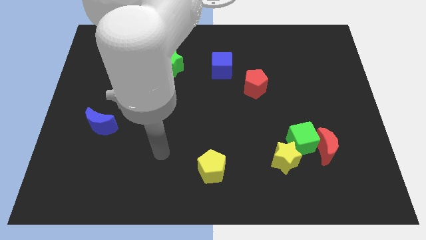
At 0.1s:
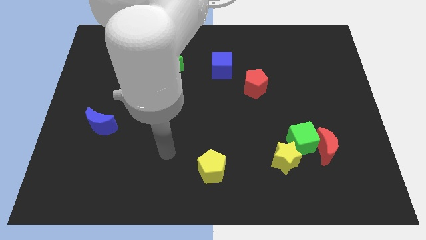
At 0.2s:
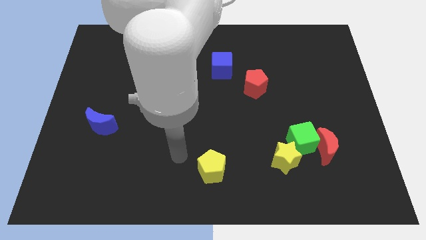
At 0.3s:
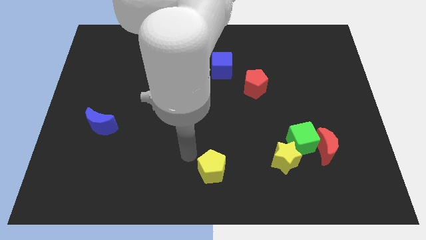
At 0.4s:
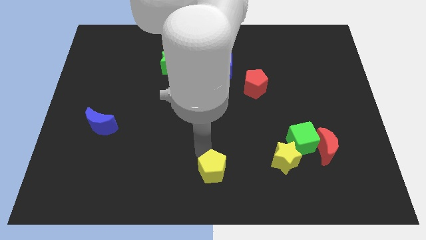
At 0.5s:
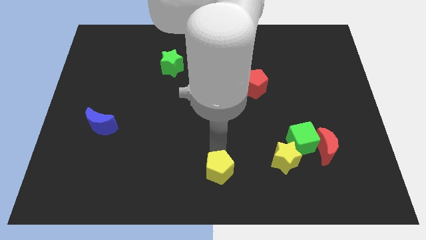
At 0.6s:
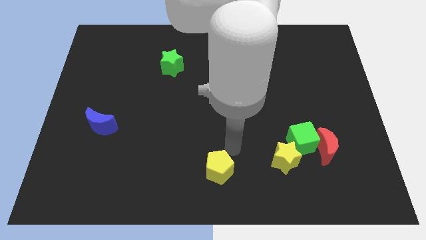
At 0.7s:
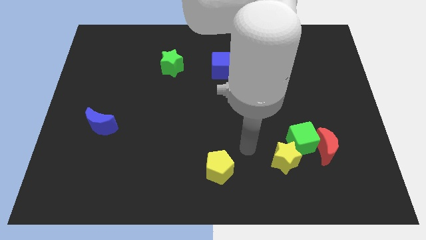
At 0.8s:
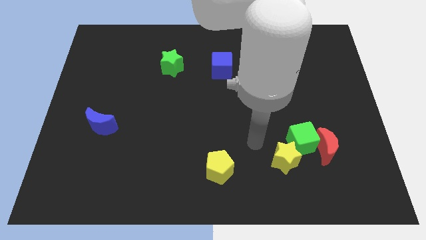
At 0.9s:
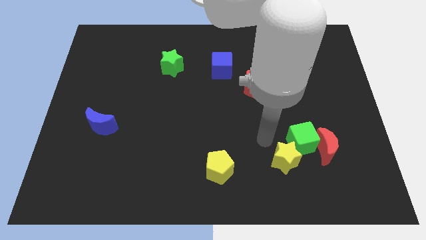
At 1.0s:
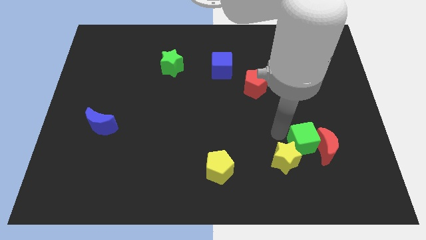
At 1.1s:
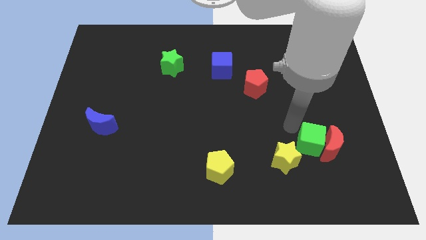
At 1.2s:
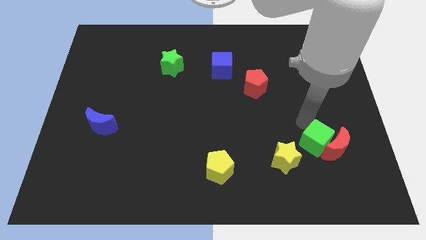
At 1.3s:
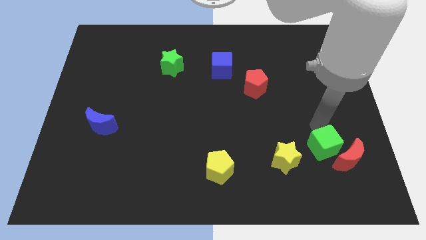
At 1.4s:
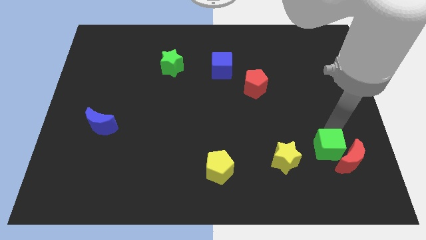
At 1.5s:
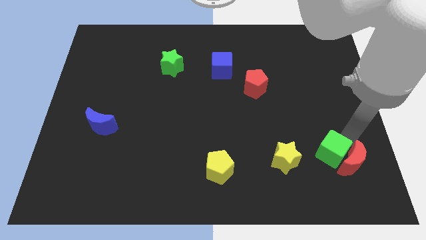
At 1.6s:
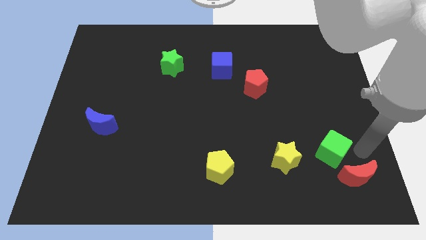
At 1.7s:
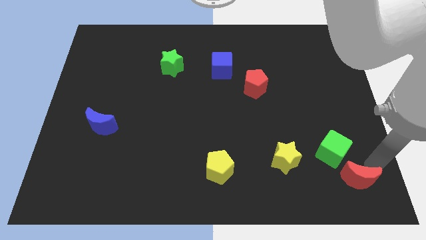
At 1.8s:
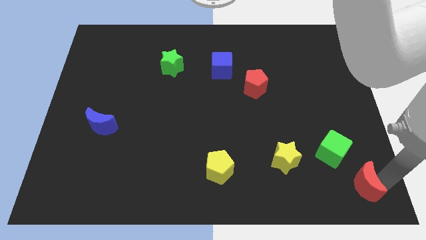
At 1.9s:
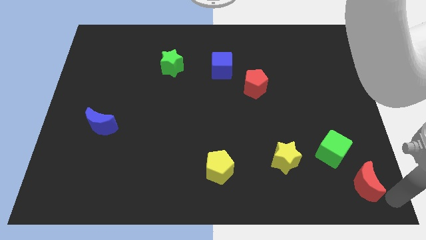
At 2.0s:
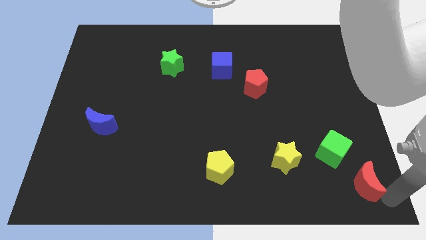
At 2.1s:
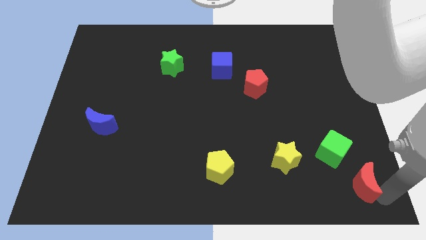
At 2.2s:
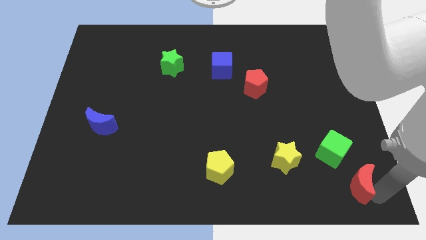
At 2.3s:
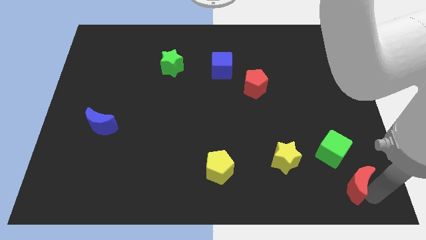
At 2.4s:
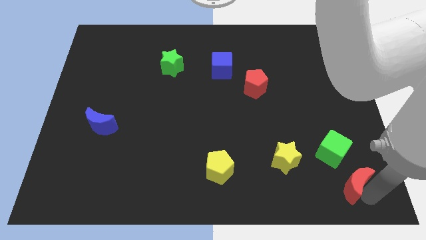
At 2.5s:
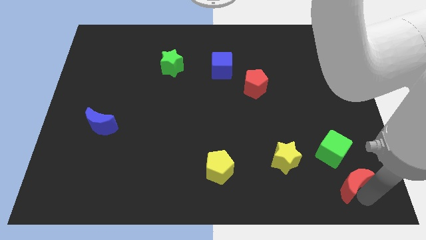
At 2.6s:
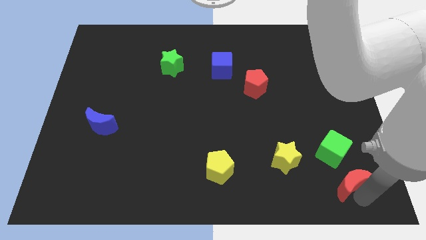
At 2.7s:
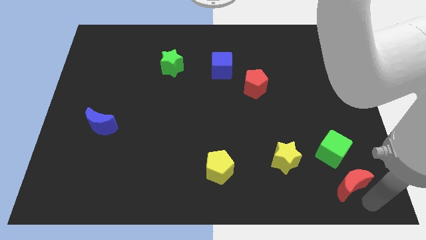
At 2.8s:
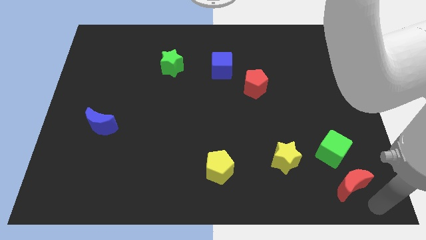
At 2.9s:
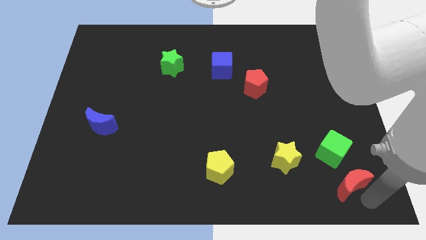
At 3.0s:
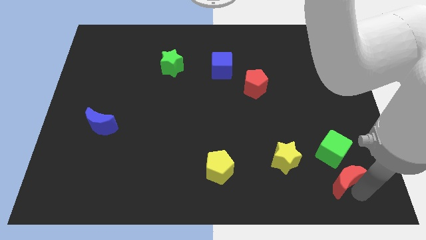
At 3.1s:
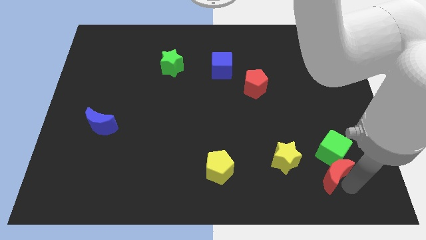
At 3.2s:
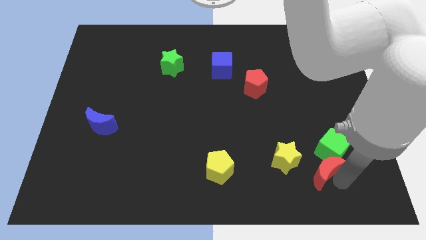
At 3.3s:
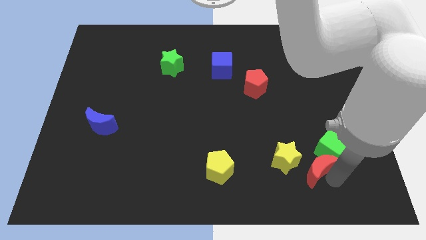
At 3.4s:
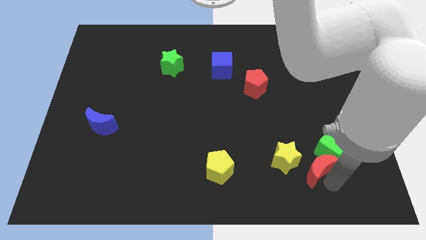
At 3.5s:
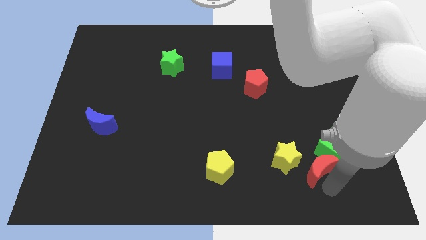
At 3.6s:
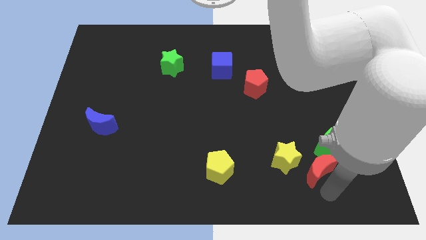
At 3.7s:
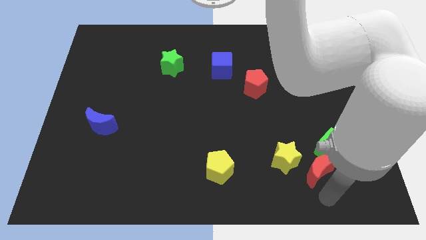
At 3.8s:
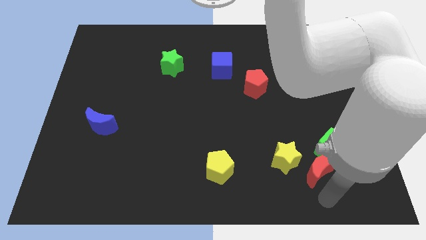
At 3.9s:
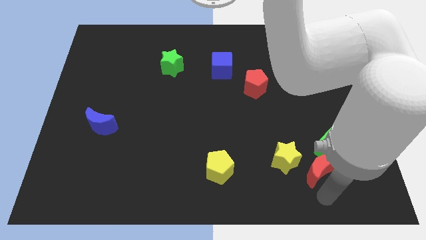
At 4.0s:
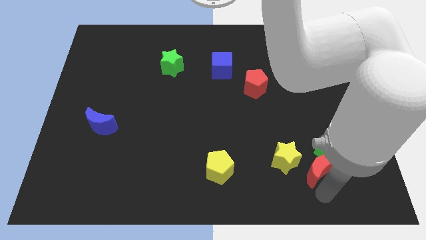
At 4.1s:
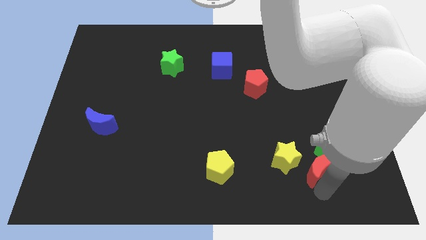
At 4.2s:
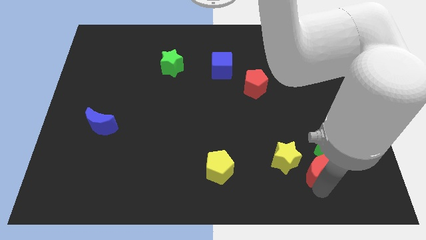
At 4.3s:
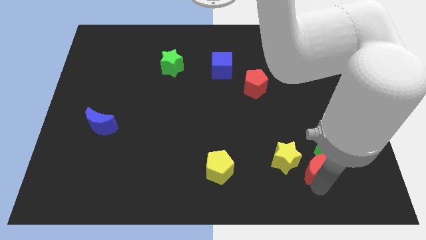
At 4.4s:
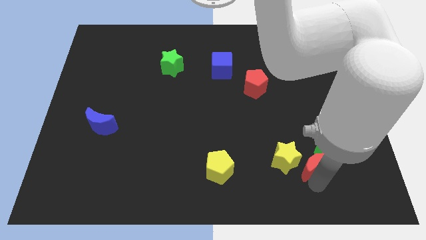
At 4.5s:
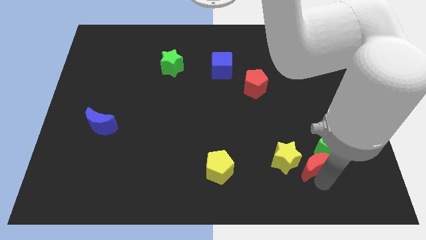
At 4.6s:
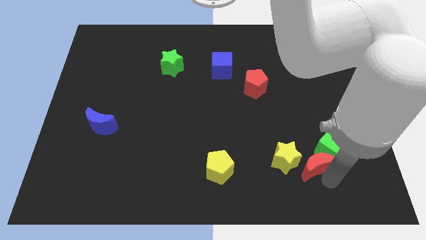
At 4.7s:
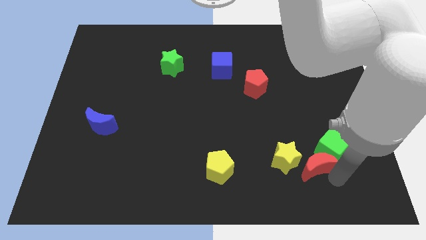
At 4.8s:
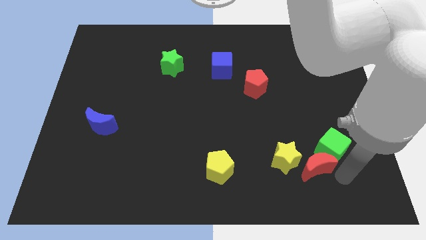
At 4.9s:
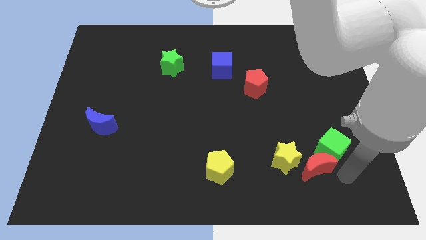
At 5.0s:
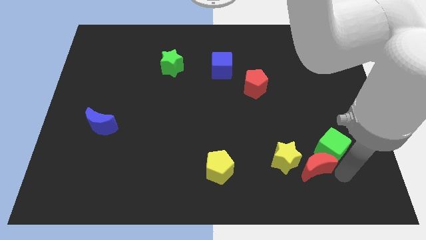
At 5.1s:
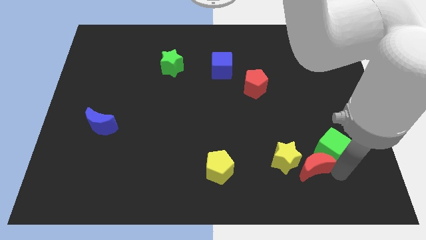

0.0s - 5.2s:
move the red moon towards the yellow star

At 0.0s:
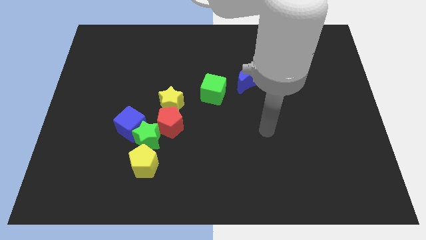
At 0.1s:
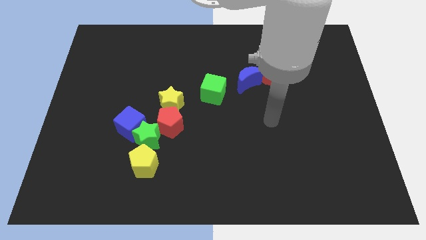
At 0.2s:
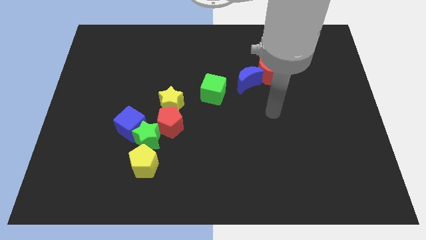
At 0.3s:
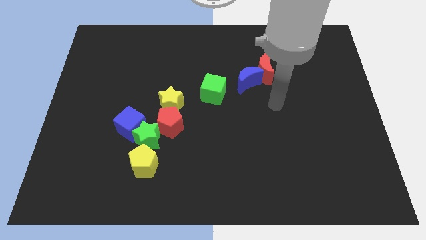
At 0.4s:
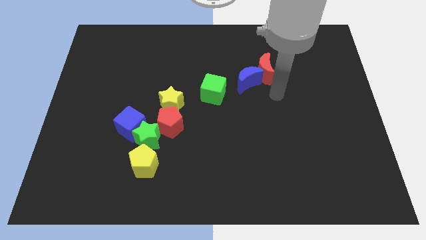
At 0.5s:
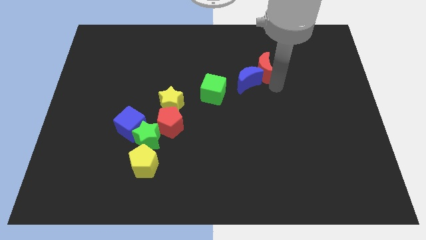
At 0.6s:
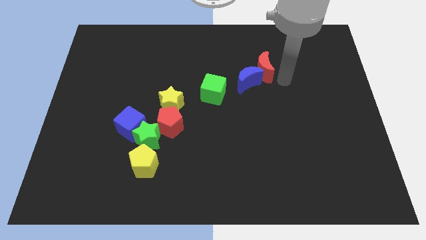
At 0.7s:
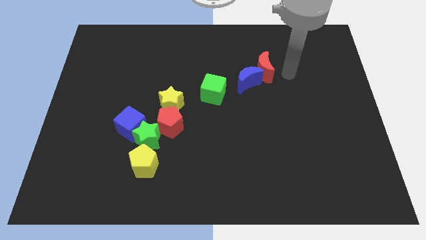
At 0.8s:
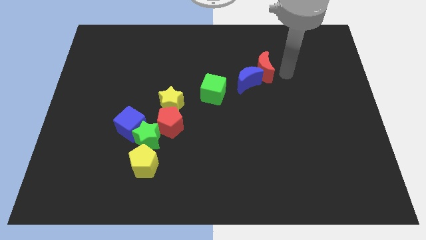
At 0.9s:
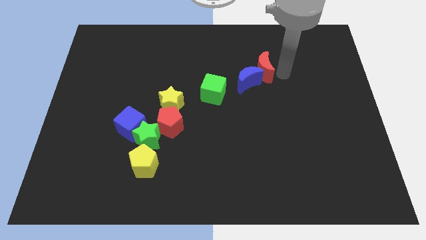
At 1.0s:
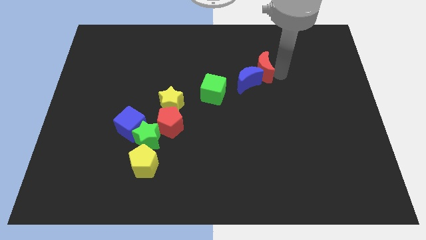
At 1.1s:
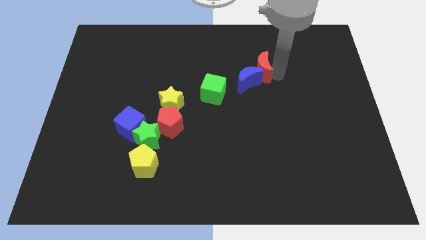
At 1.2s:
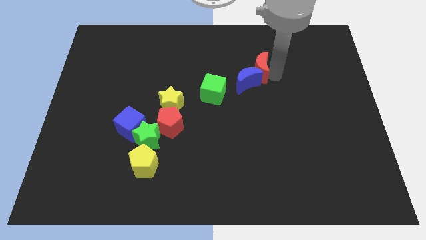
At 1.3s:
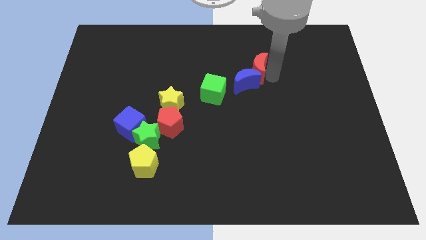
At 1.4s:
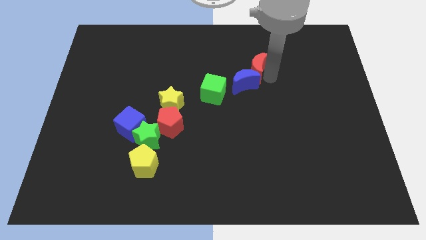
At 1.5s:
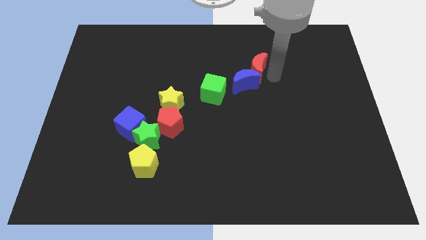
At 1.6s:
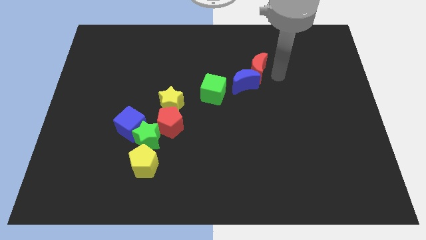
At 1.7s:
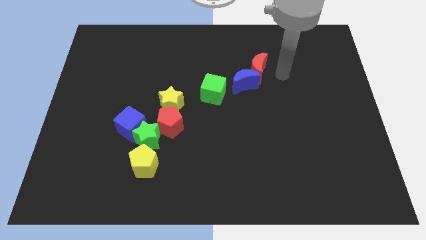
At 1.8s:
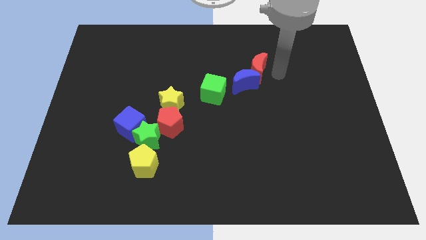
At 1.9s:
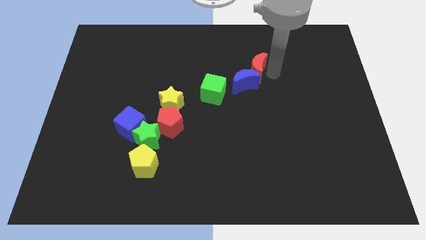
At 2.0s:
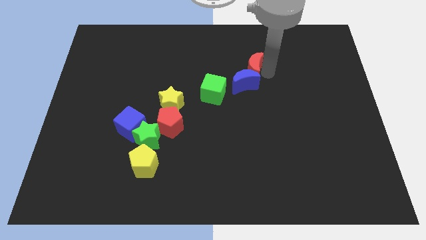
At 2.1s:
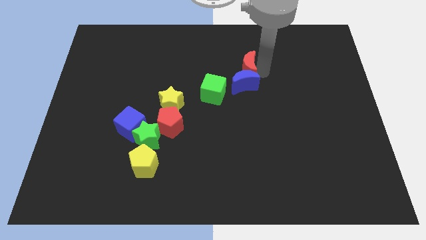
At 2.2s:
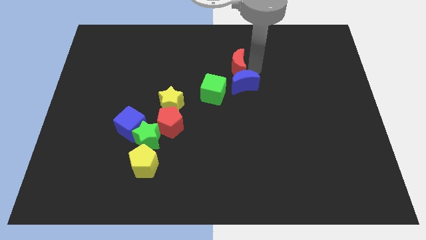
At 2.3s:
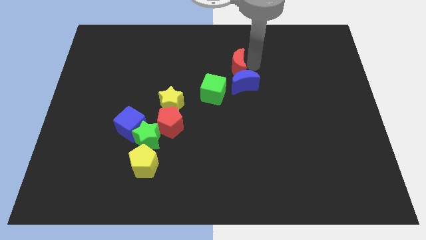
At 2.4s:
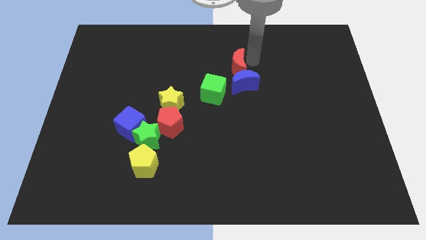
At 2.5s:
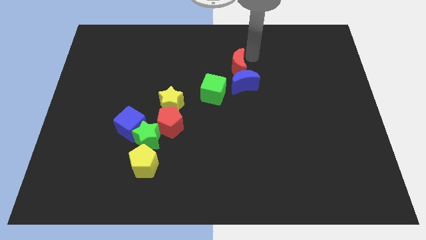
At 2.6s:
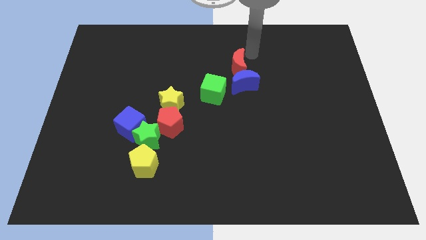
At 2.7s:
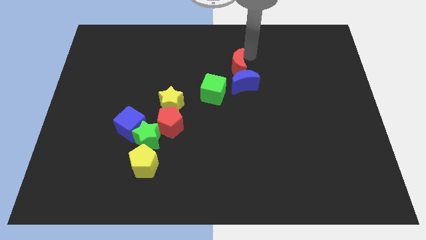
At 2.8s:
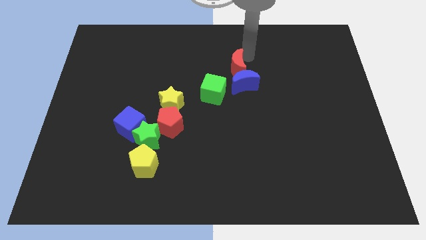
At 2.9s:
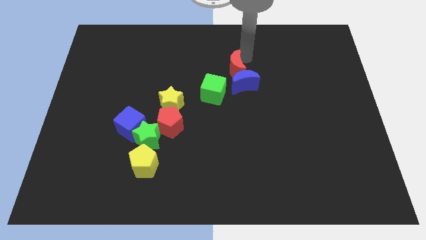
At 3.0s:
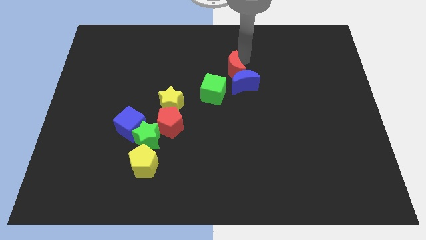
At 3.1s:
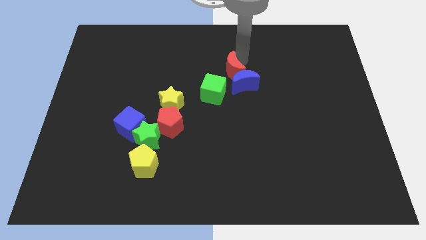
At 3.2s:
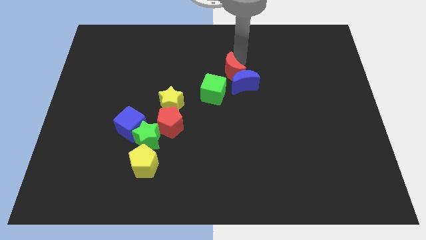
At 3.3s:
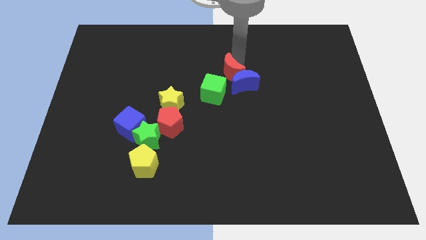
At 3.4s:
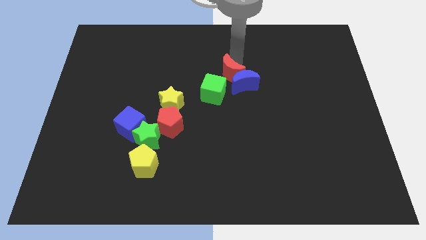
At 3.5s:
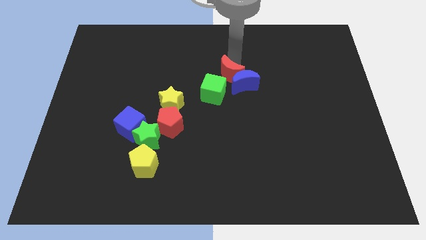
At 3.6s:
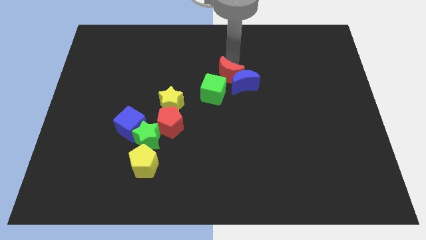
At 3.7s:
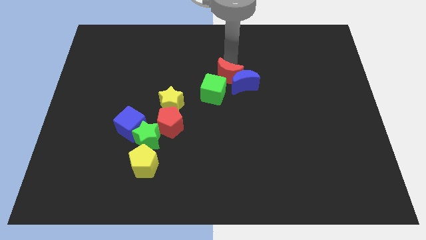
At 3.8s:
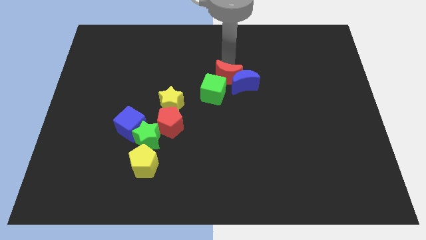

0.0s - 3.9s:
move the red moon to the green cube
